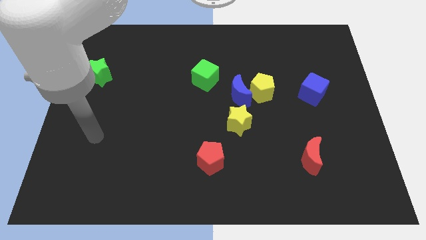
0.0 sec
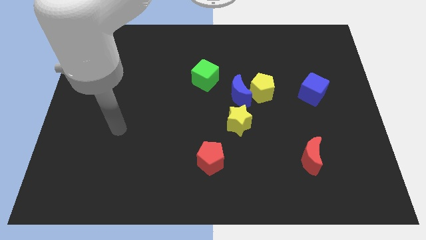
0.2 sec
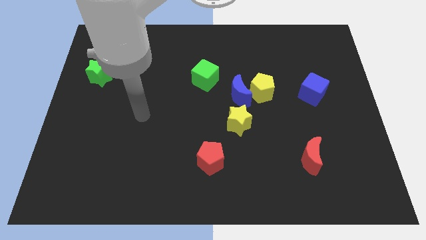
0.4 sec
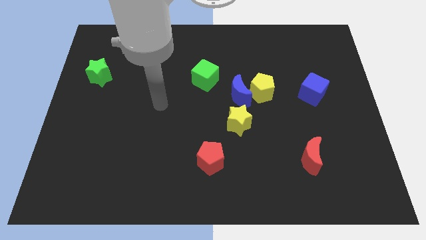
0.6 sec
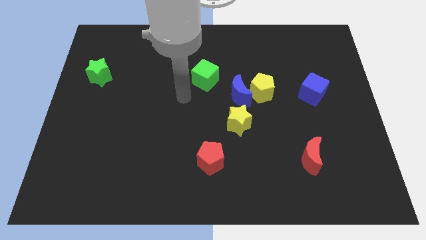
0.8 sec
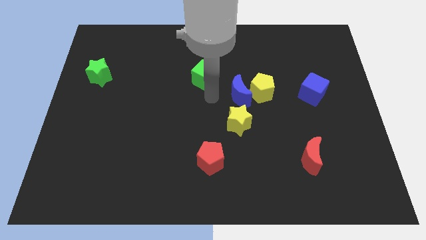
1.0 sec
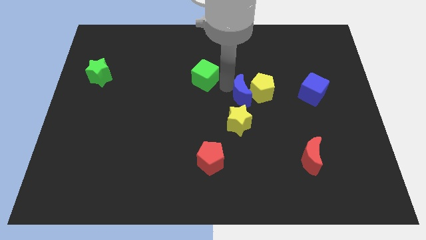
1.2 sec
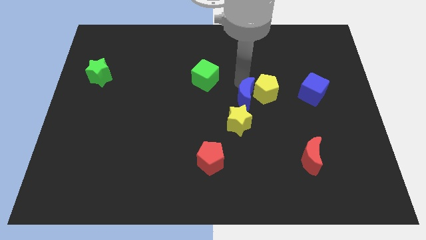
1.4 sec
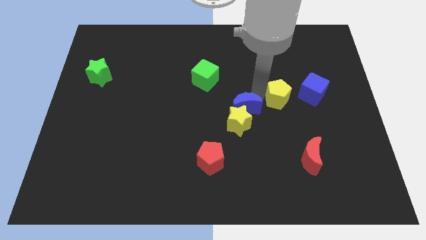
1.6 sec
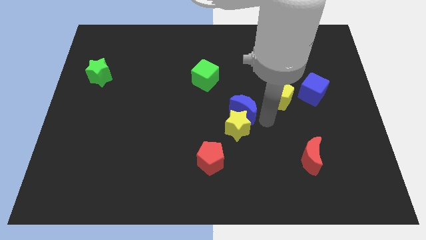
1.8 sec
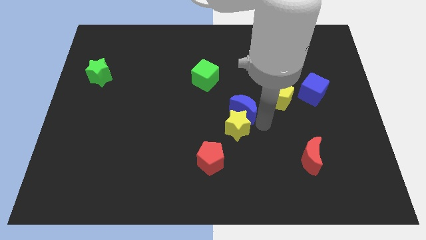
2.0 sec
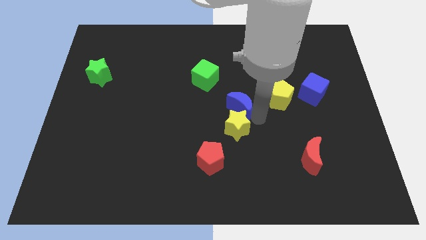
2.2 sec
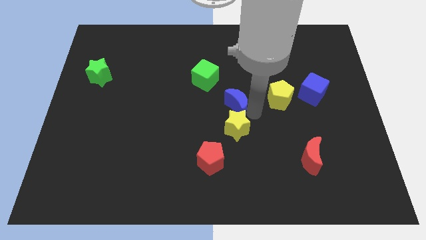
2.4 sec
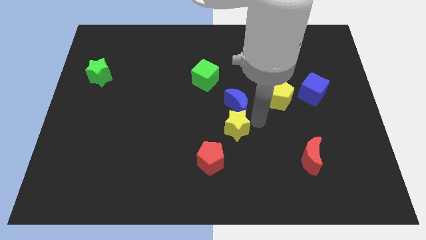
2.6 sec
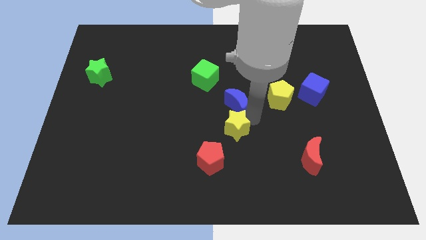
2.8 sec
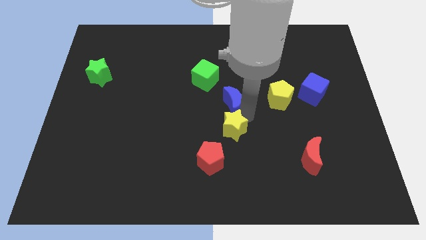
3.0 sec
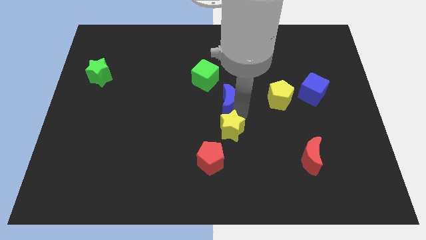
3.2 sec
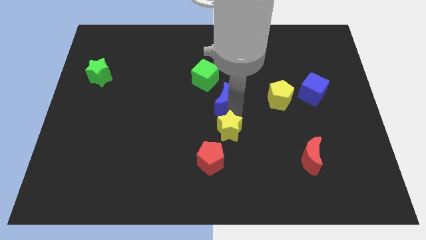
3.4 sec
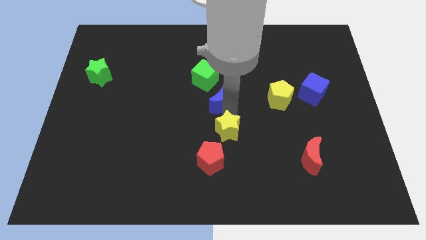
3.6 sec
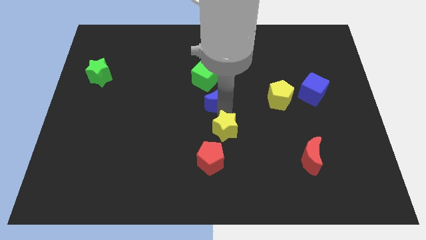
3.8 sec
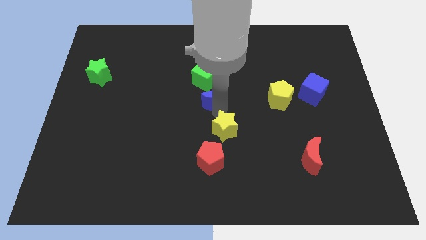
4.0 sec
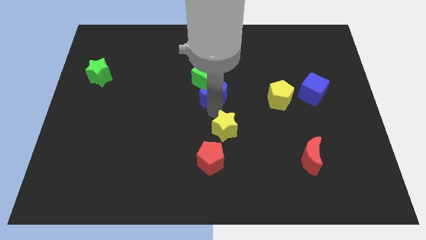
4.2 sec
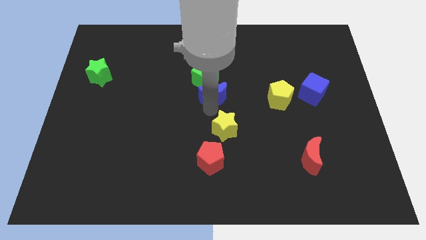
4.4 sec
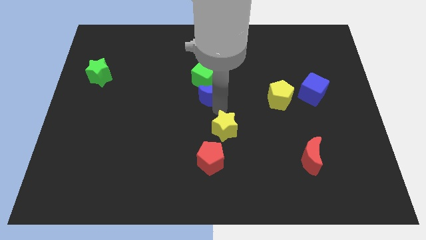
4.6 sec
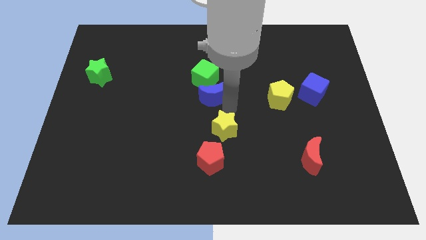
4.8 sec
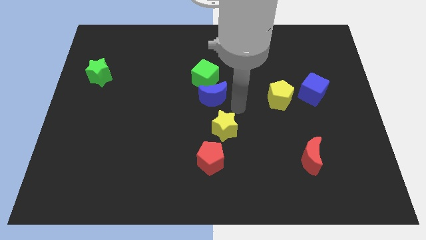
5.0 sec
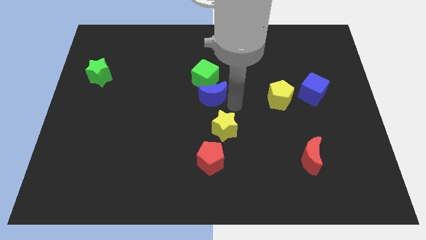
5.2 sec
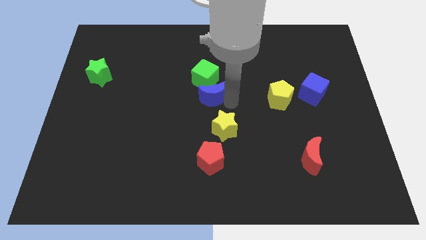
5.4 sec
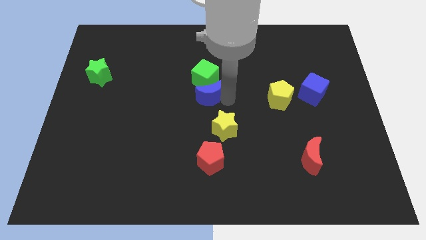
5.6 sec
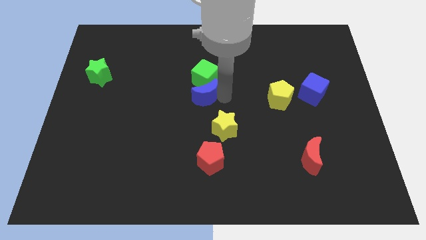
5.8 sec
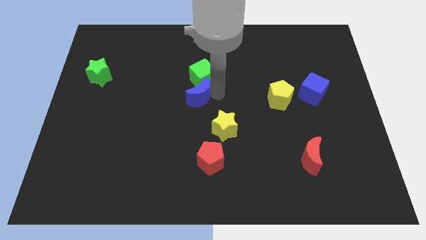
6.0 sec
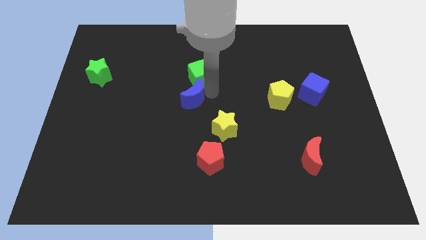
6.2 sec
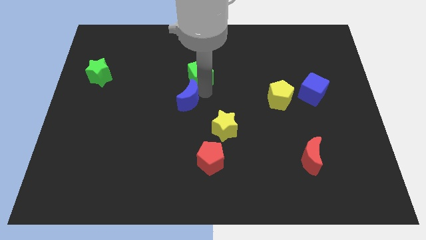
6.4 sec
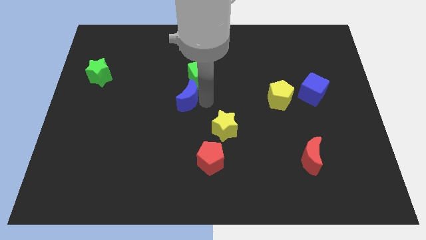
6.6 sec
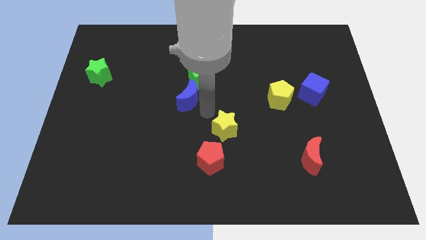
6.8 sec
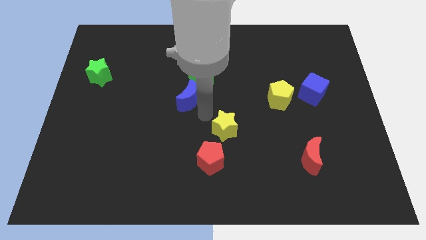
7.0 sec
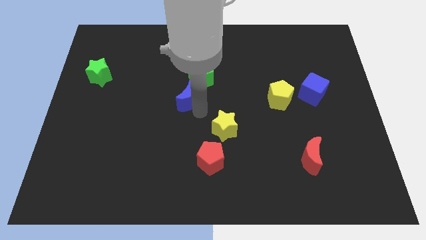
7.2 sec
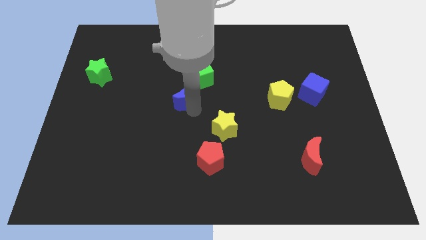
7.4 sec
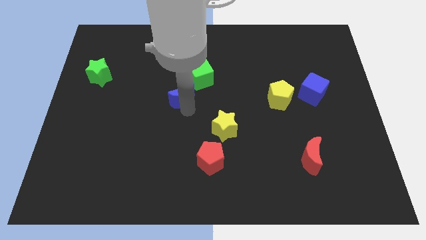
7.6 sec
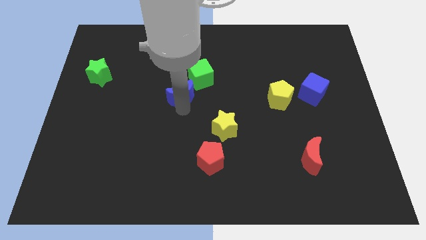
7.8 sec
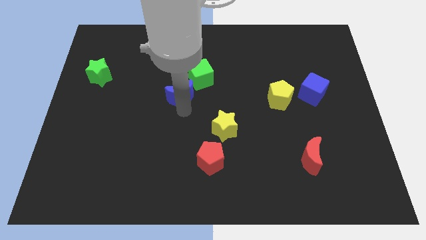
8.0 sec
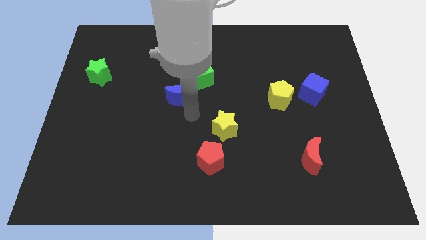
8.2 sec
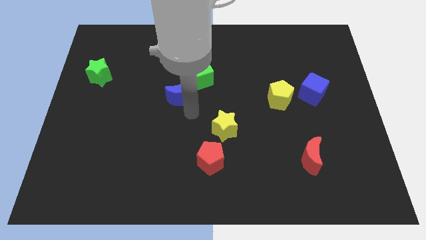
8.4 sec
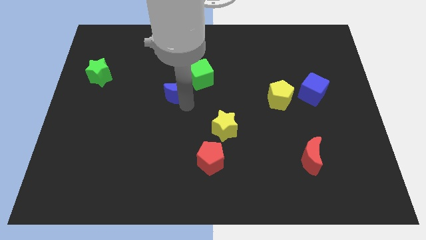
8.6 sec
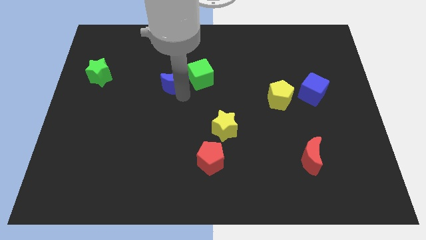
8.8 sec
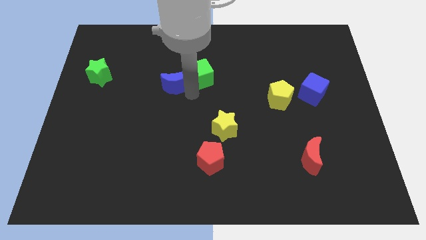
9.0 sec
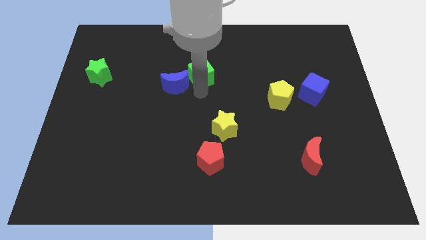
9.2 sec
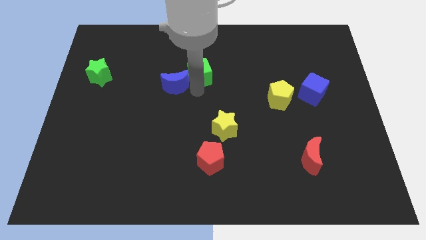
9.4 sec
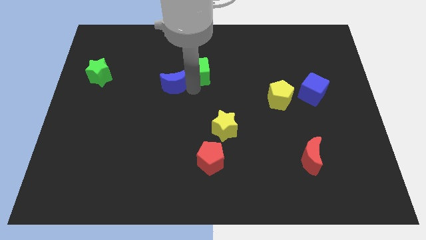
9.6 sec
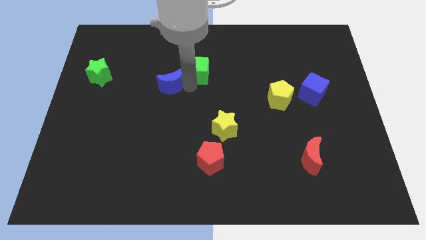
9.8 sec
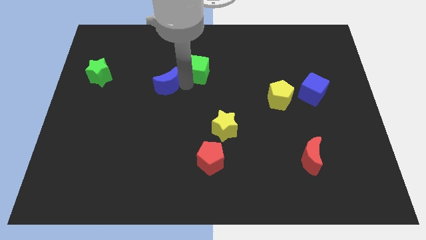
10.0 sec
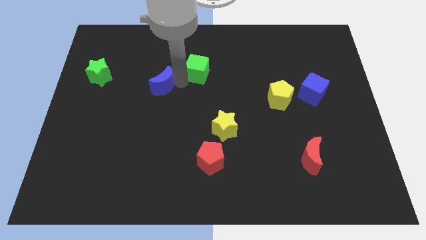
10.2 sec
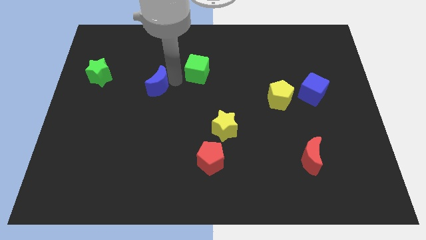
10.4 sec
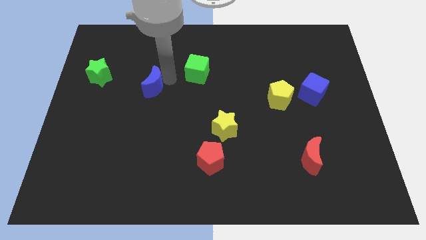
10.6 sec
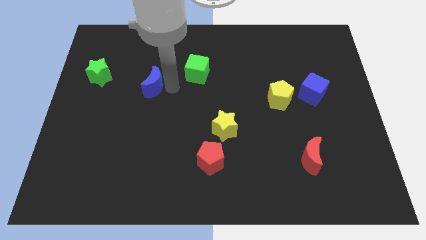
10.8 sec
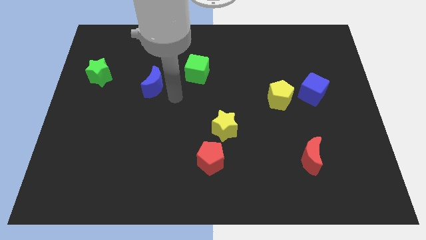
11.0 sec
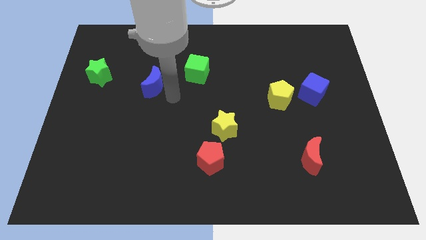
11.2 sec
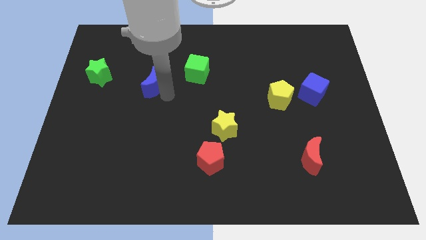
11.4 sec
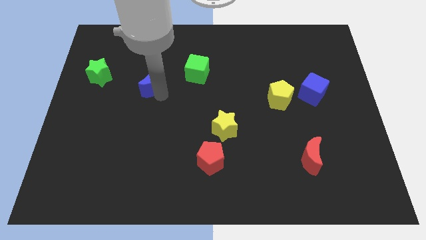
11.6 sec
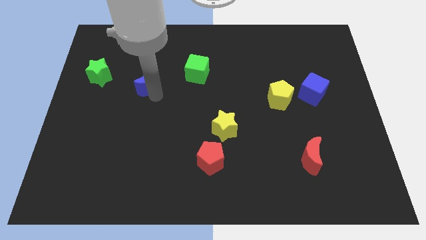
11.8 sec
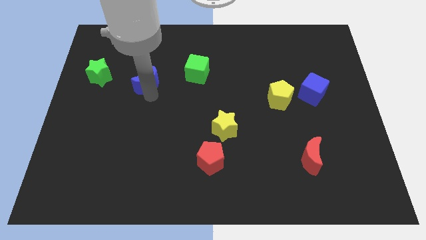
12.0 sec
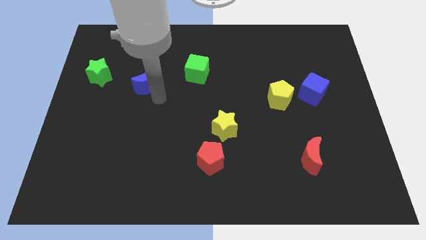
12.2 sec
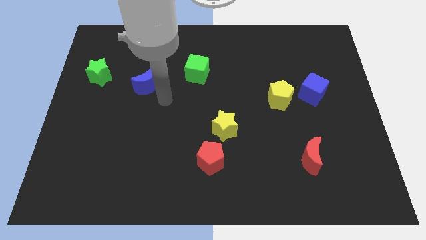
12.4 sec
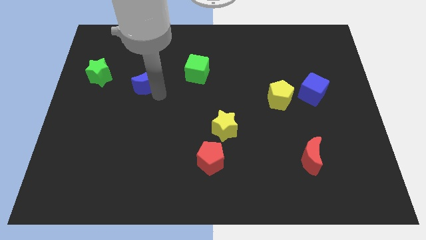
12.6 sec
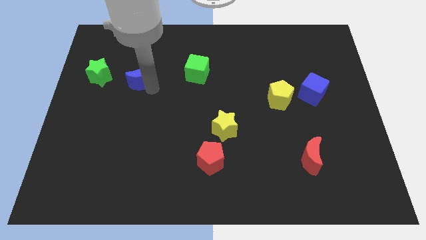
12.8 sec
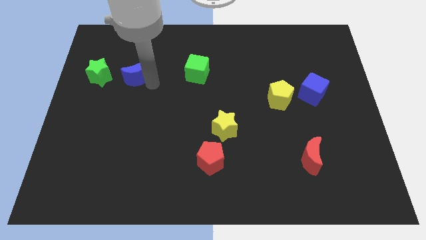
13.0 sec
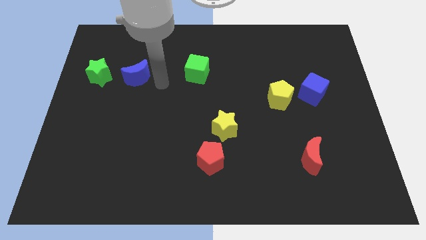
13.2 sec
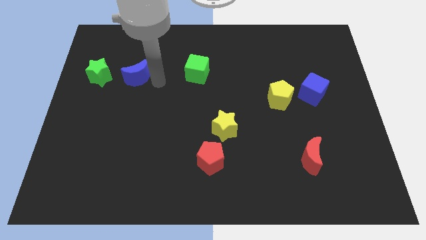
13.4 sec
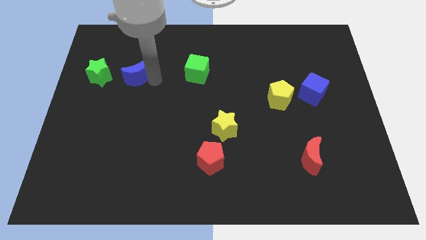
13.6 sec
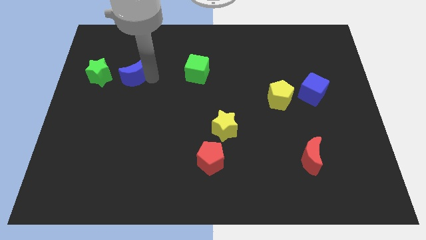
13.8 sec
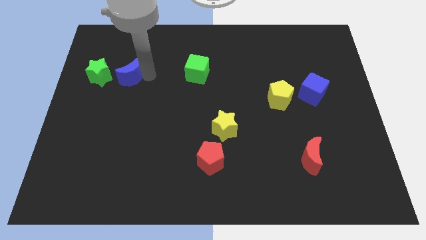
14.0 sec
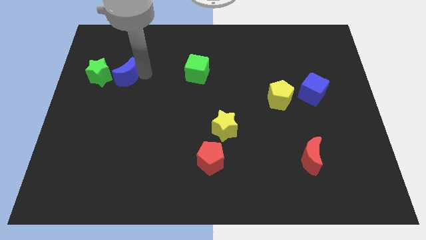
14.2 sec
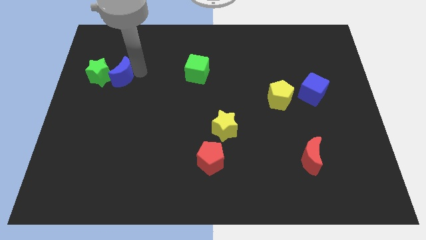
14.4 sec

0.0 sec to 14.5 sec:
move the blue moon close to the green star
